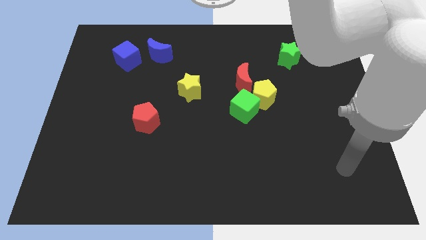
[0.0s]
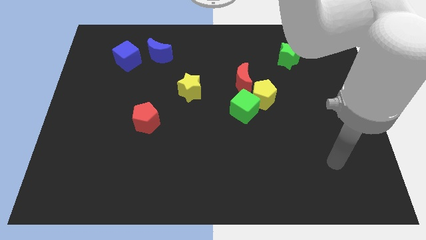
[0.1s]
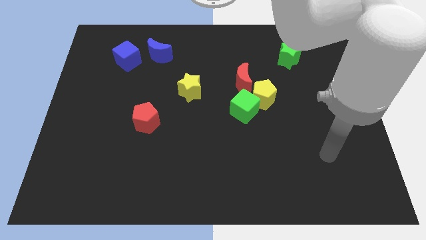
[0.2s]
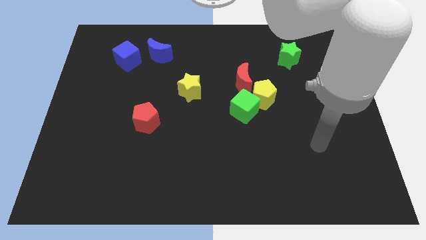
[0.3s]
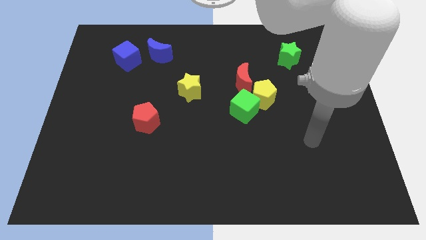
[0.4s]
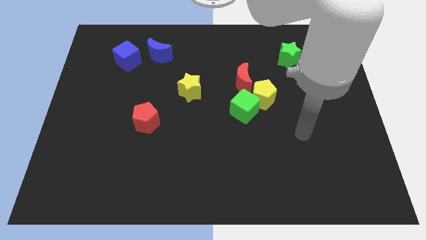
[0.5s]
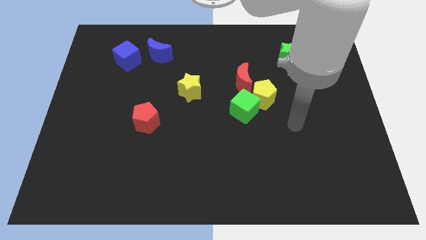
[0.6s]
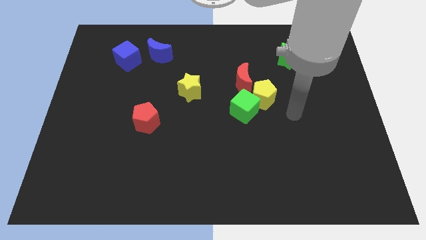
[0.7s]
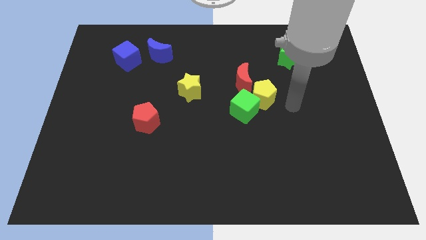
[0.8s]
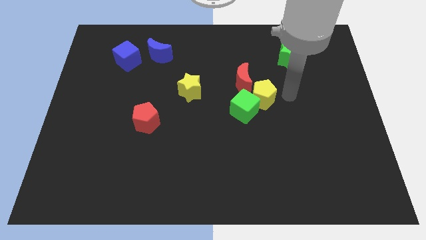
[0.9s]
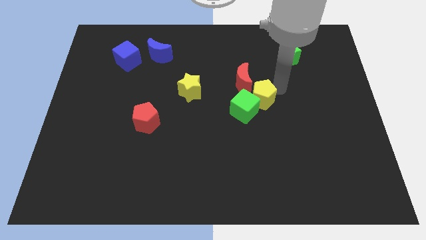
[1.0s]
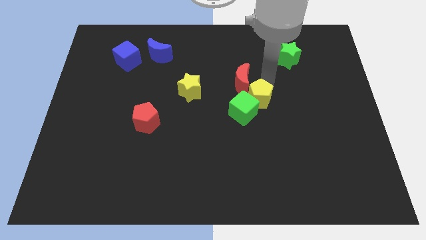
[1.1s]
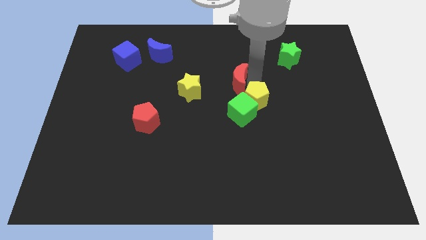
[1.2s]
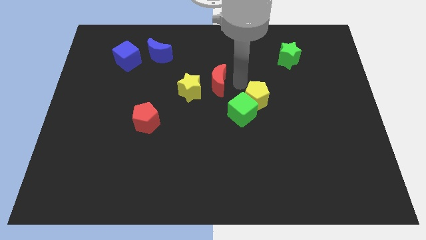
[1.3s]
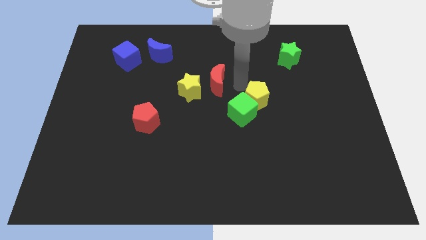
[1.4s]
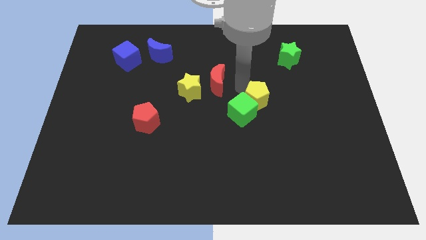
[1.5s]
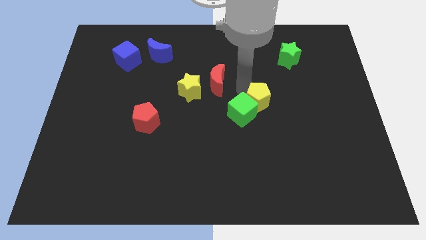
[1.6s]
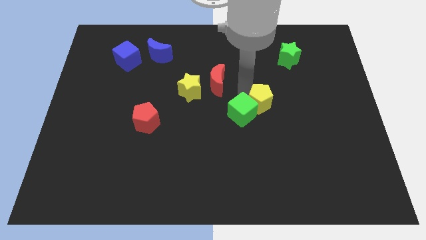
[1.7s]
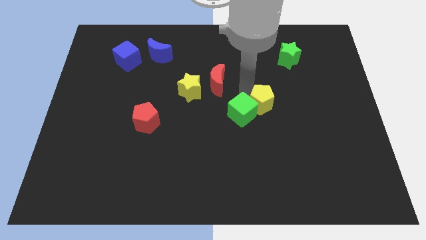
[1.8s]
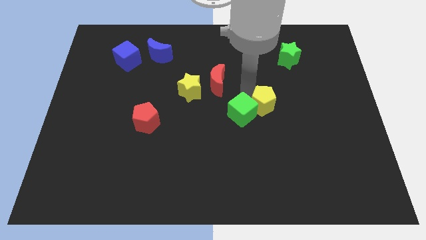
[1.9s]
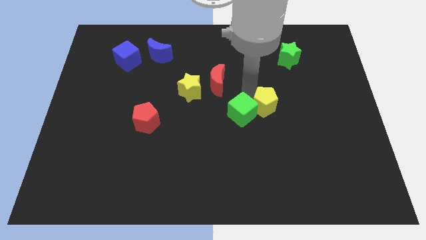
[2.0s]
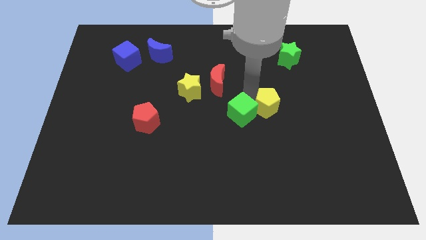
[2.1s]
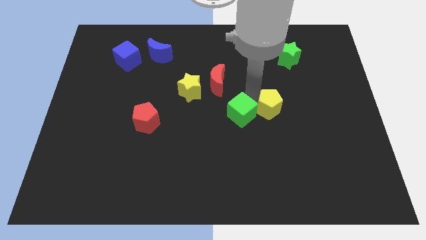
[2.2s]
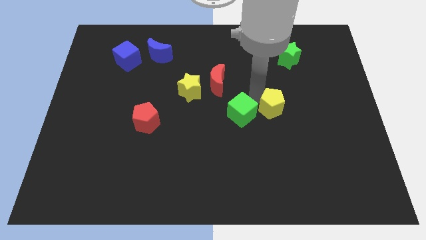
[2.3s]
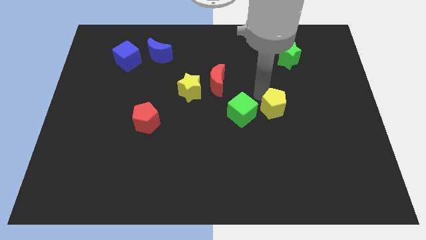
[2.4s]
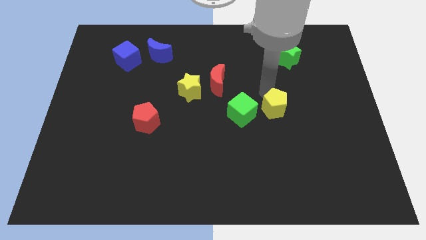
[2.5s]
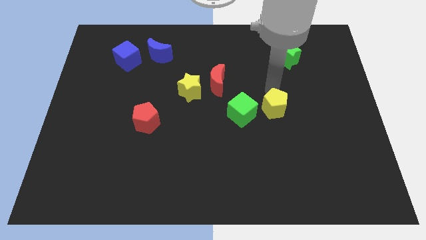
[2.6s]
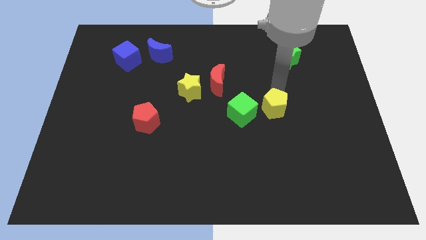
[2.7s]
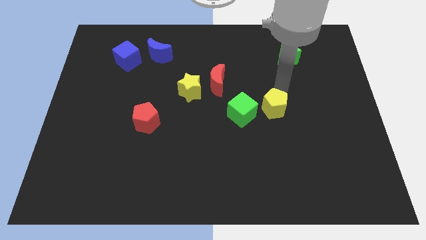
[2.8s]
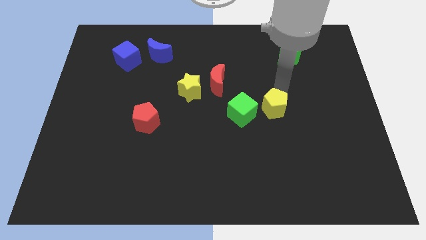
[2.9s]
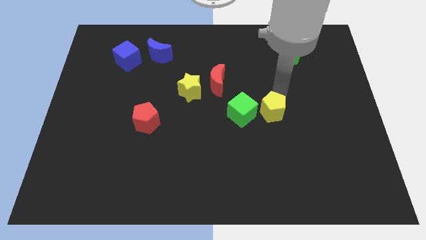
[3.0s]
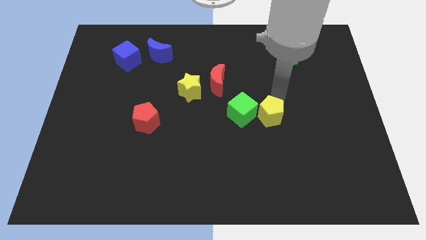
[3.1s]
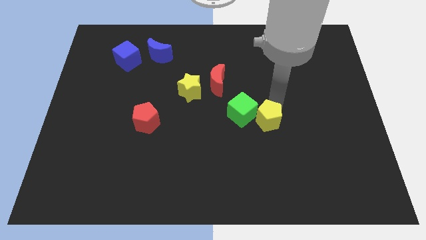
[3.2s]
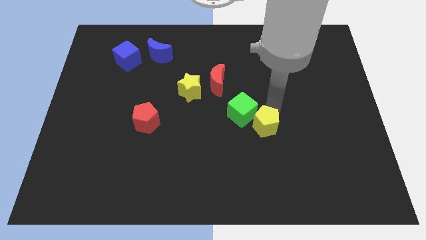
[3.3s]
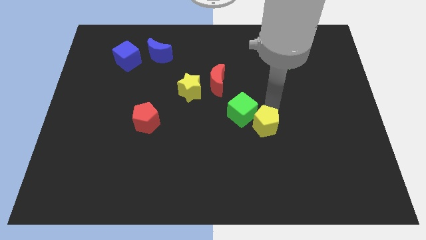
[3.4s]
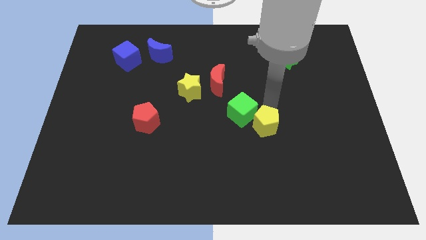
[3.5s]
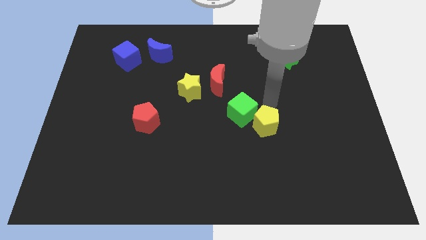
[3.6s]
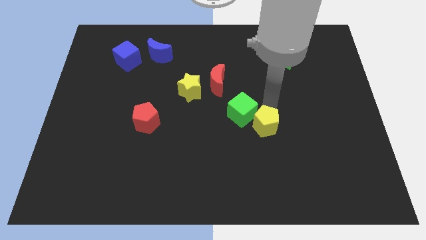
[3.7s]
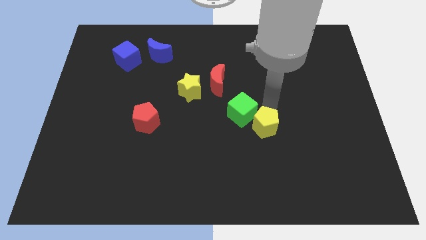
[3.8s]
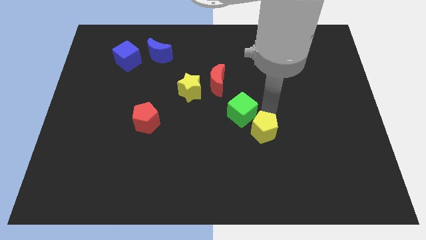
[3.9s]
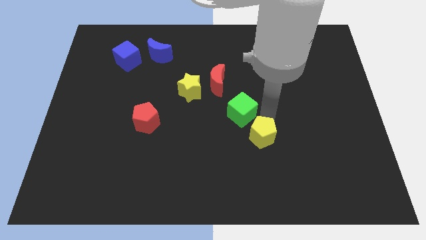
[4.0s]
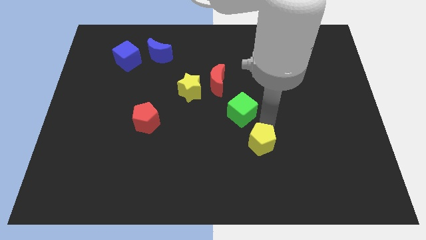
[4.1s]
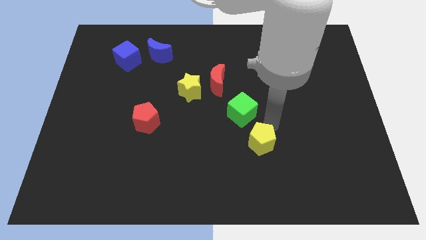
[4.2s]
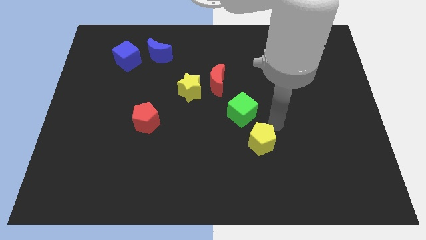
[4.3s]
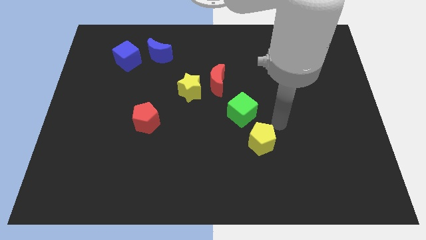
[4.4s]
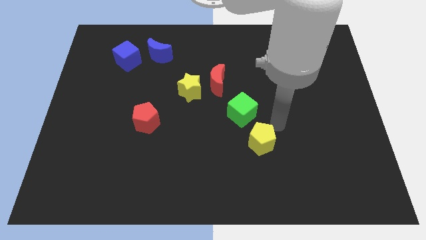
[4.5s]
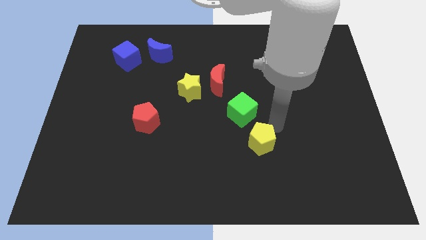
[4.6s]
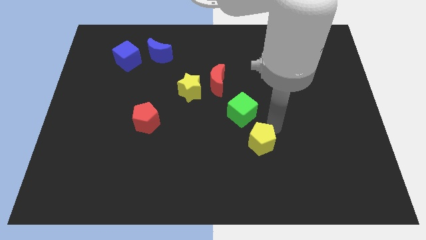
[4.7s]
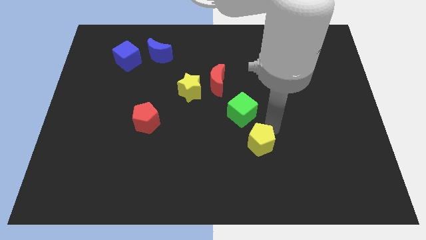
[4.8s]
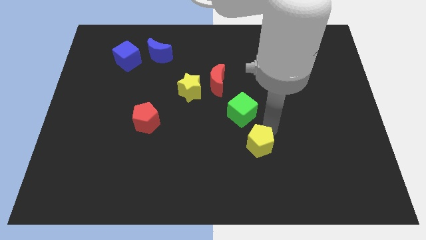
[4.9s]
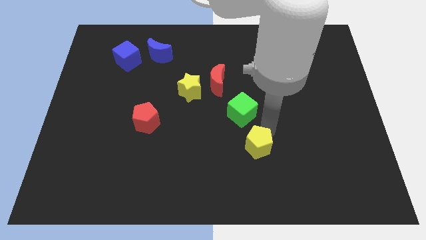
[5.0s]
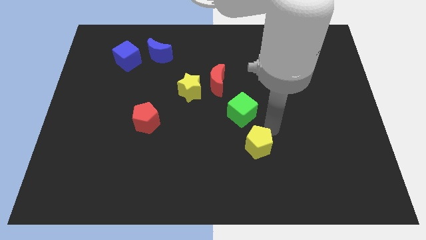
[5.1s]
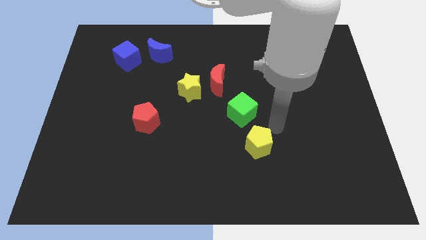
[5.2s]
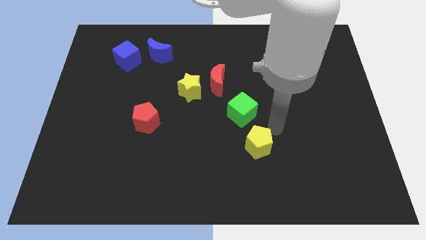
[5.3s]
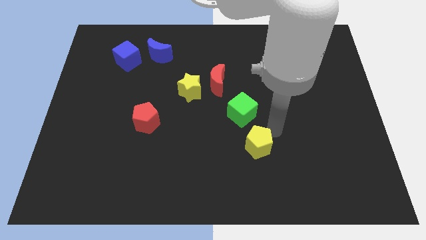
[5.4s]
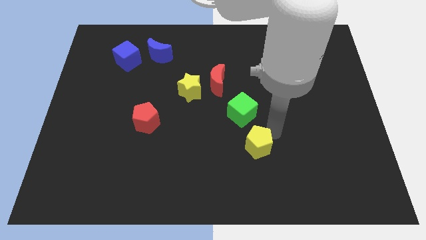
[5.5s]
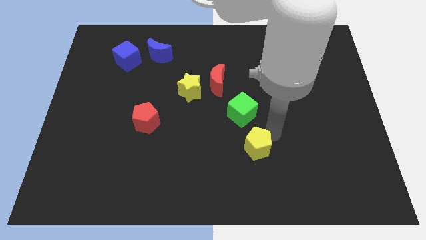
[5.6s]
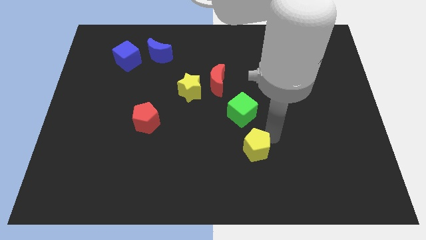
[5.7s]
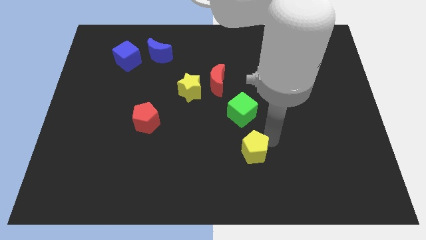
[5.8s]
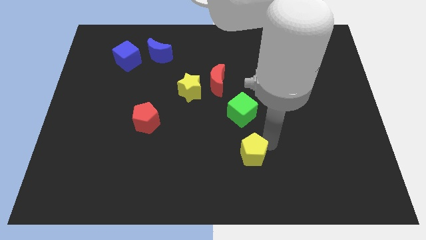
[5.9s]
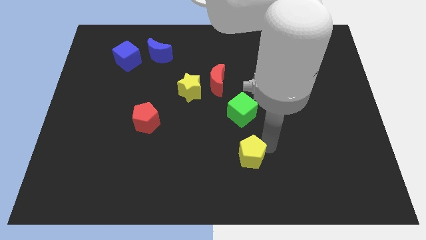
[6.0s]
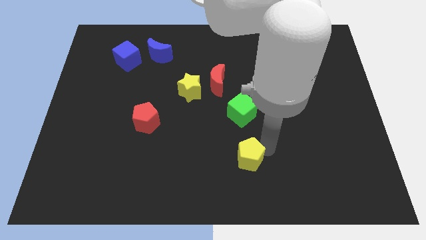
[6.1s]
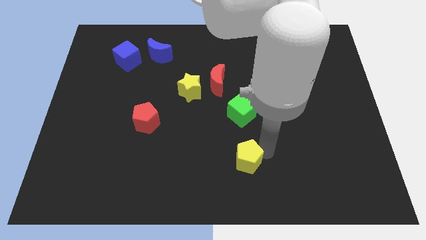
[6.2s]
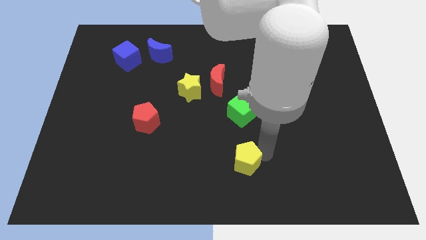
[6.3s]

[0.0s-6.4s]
push the yellow pentagon to the bottom
